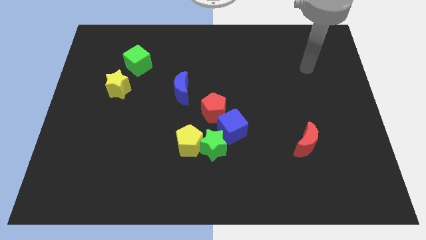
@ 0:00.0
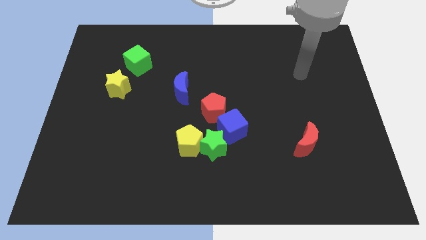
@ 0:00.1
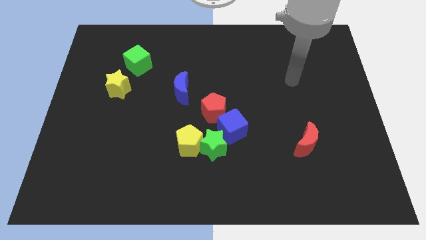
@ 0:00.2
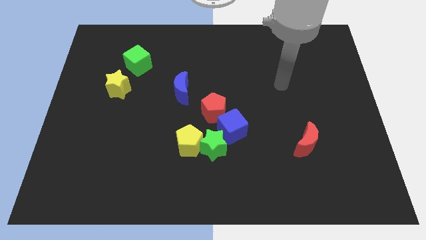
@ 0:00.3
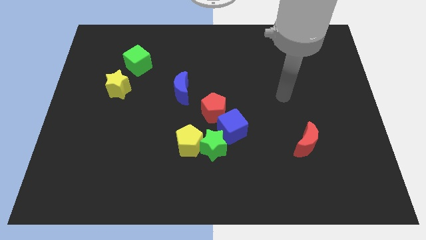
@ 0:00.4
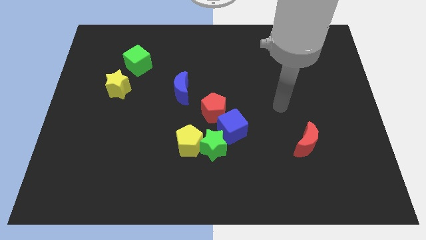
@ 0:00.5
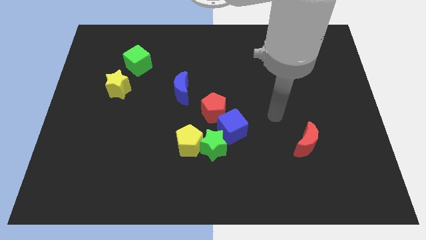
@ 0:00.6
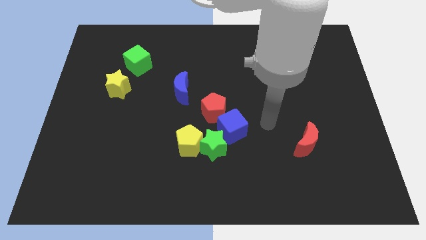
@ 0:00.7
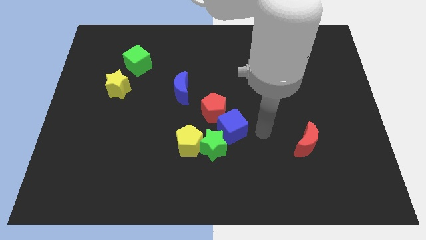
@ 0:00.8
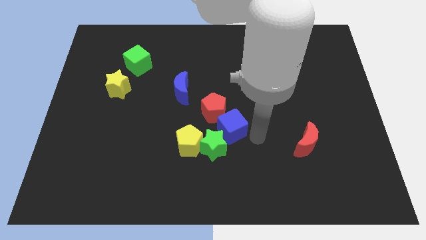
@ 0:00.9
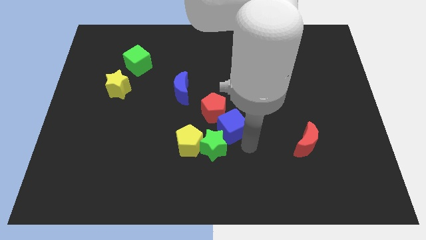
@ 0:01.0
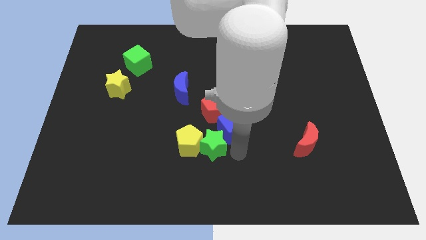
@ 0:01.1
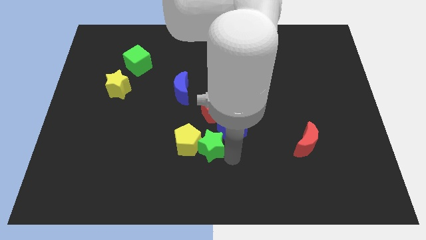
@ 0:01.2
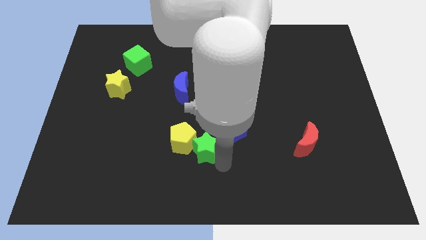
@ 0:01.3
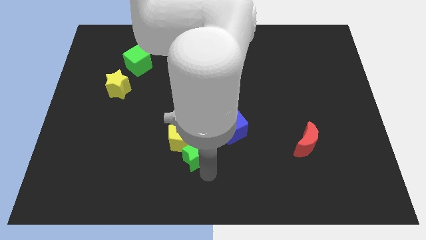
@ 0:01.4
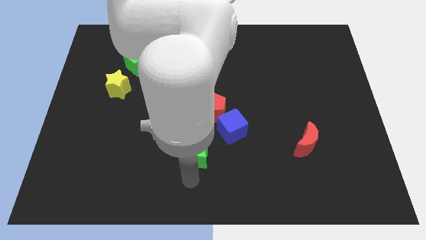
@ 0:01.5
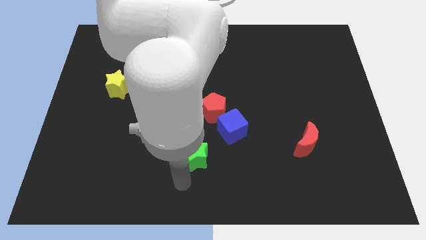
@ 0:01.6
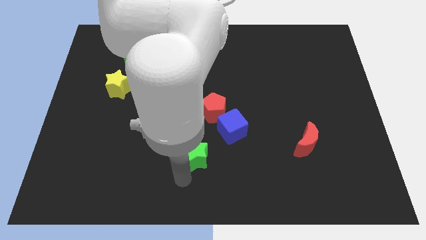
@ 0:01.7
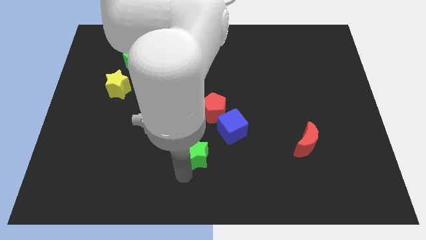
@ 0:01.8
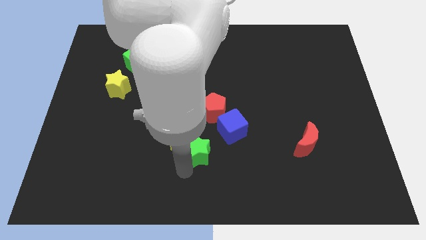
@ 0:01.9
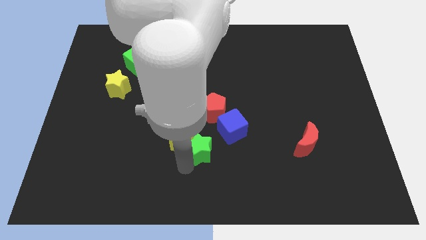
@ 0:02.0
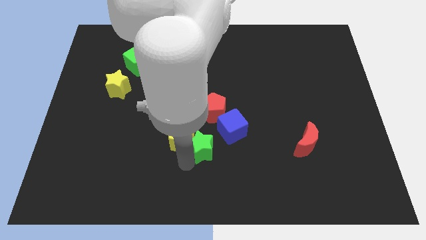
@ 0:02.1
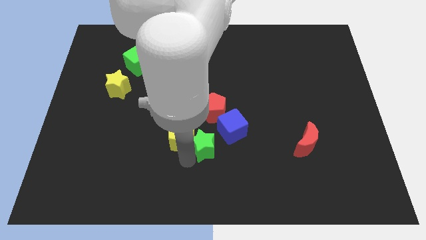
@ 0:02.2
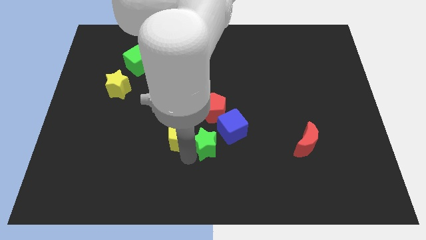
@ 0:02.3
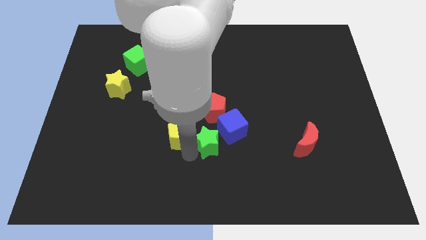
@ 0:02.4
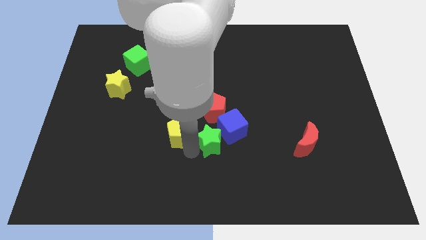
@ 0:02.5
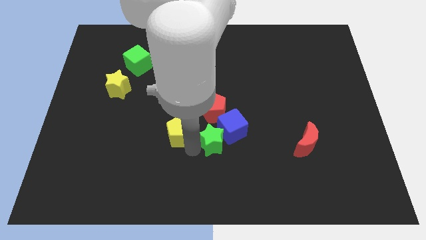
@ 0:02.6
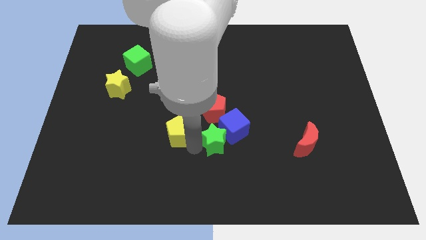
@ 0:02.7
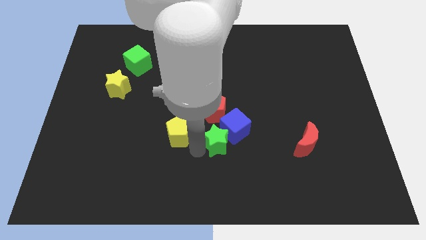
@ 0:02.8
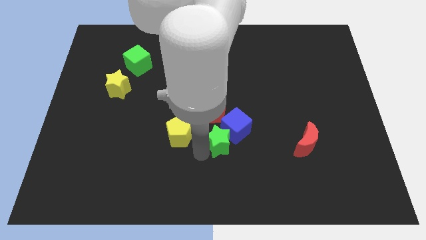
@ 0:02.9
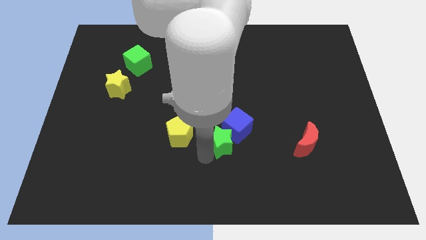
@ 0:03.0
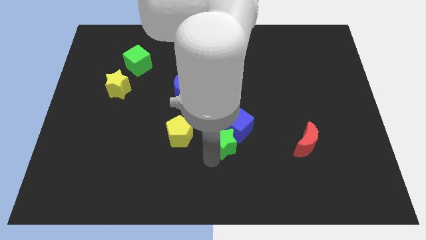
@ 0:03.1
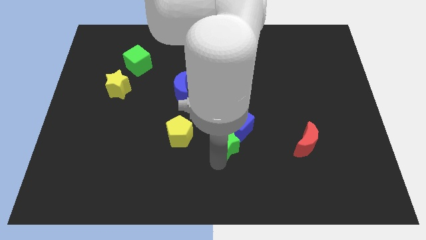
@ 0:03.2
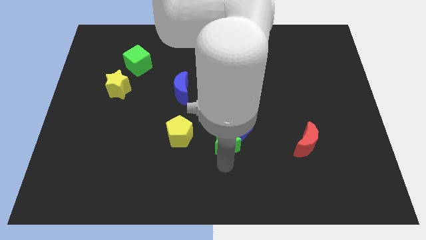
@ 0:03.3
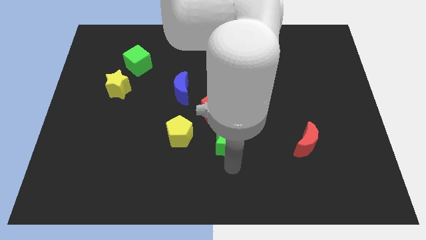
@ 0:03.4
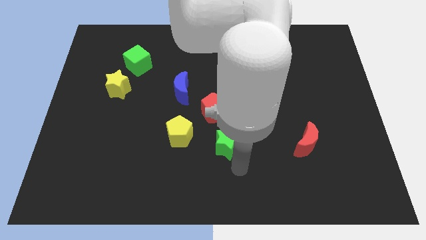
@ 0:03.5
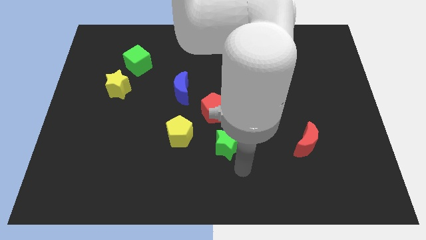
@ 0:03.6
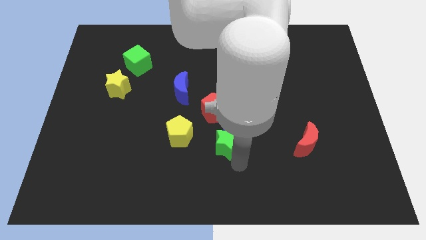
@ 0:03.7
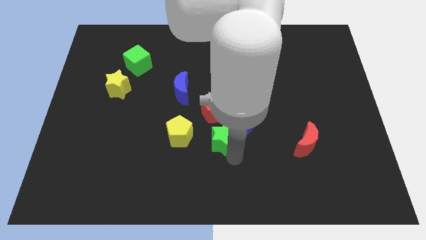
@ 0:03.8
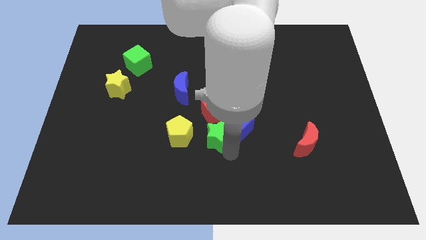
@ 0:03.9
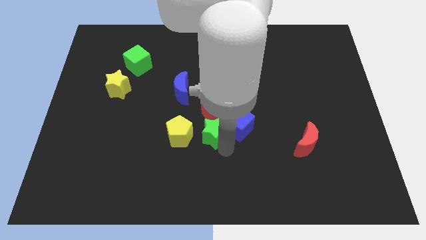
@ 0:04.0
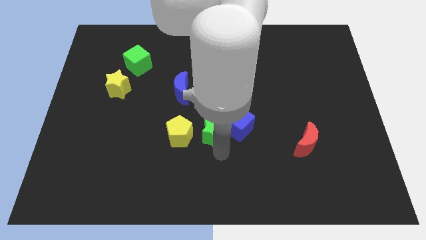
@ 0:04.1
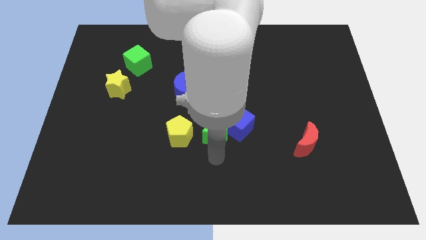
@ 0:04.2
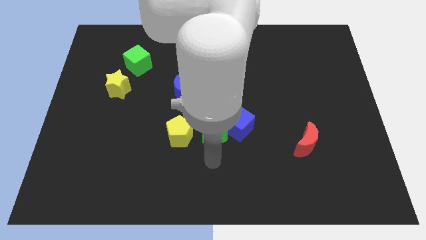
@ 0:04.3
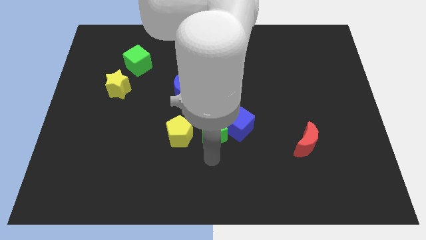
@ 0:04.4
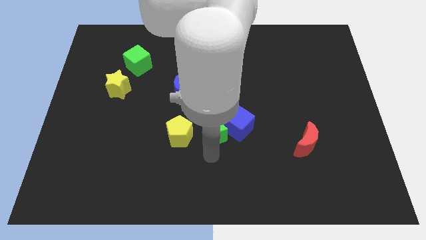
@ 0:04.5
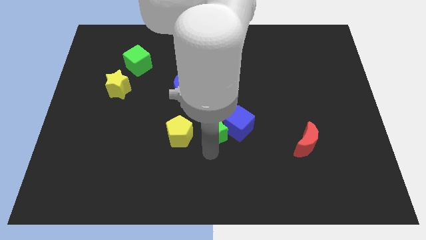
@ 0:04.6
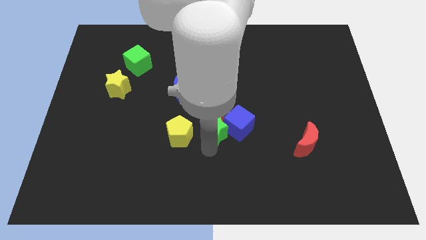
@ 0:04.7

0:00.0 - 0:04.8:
slide the green star next to the red pentagon

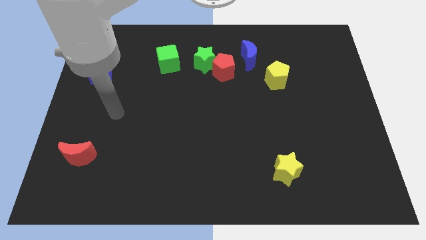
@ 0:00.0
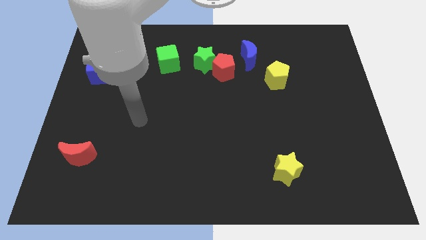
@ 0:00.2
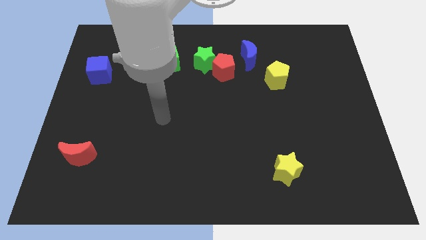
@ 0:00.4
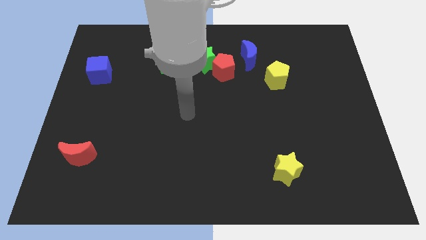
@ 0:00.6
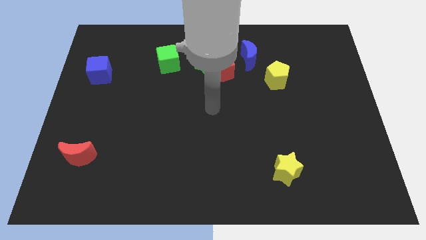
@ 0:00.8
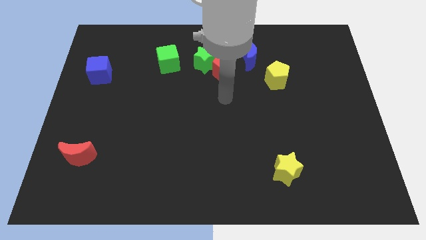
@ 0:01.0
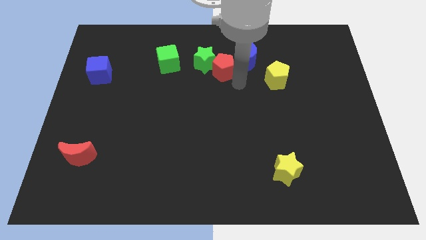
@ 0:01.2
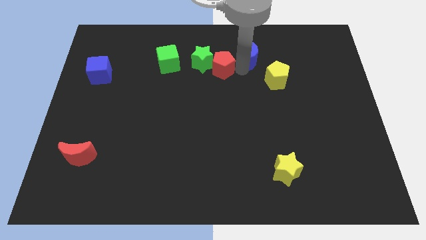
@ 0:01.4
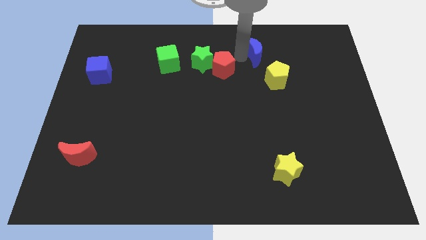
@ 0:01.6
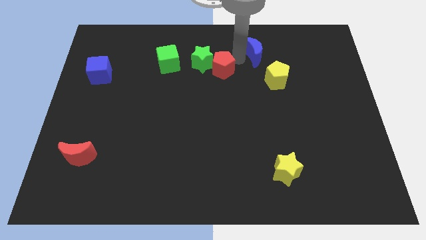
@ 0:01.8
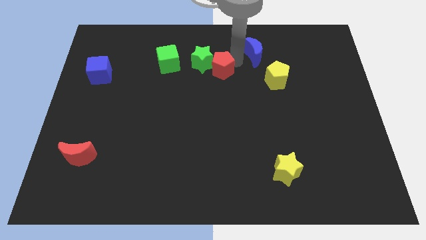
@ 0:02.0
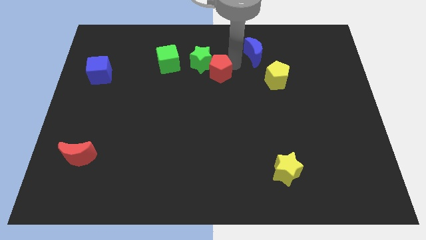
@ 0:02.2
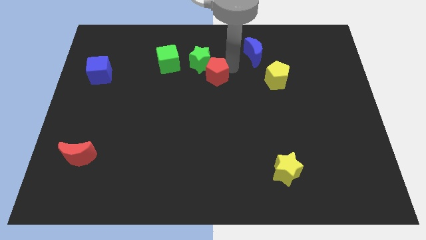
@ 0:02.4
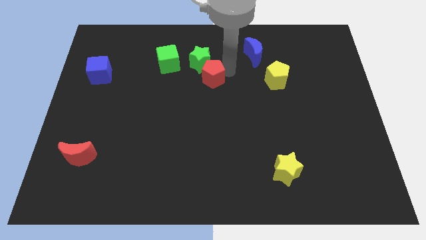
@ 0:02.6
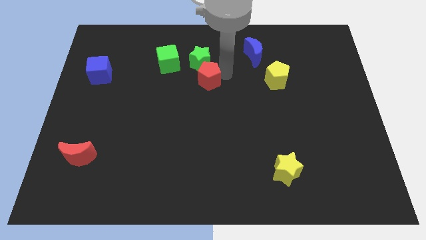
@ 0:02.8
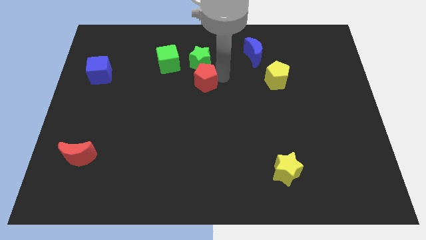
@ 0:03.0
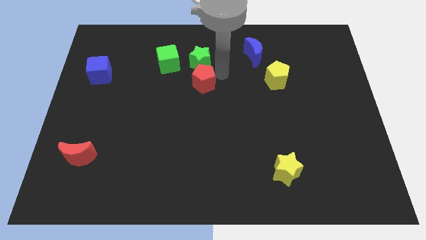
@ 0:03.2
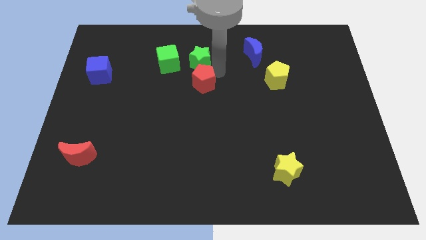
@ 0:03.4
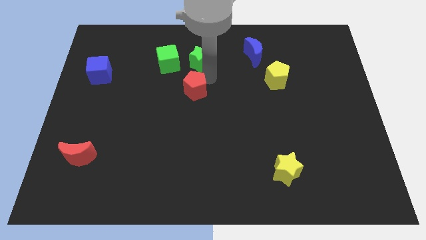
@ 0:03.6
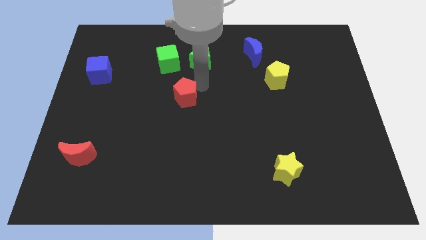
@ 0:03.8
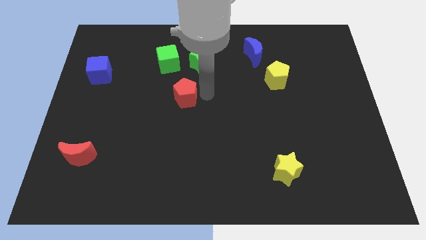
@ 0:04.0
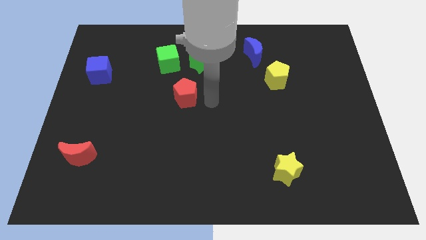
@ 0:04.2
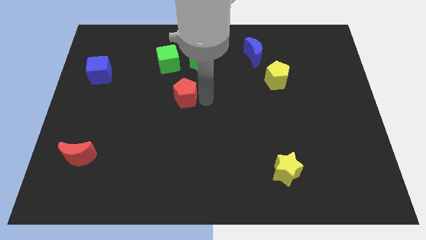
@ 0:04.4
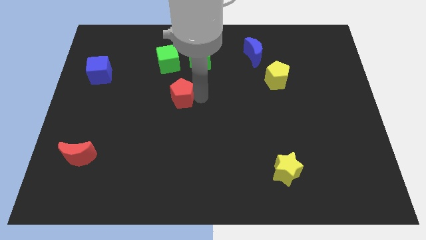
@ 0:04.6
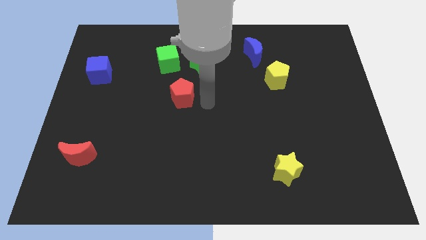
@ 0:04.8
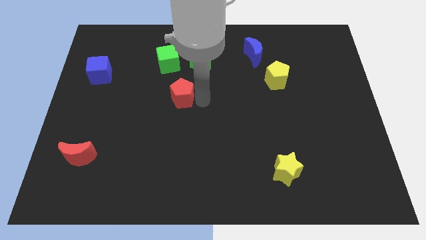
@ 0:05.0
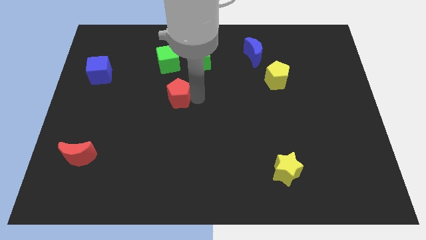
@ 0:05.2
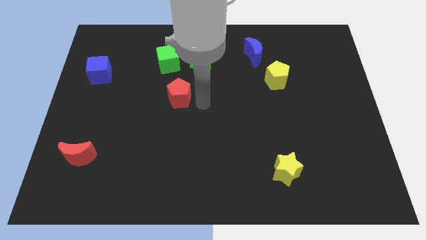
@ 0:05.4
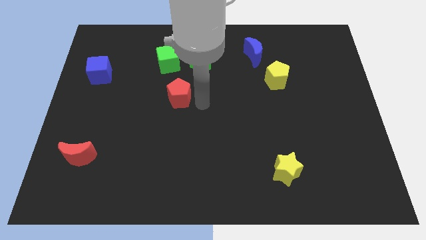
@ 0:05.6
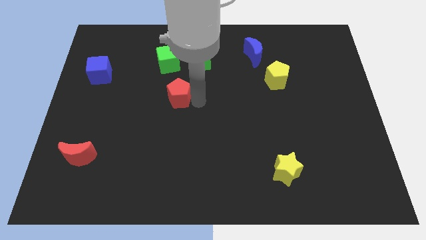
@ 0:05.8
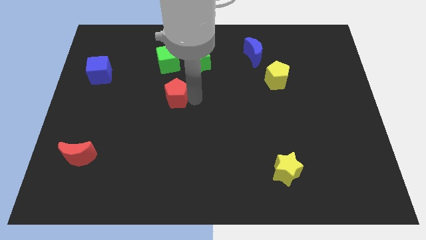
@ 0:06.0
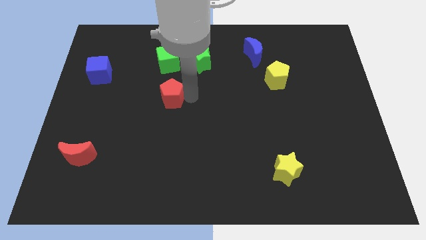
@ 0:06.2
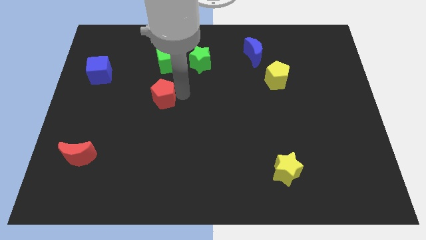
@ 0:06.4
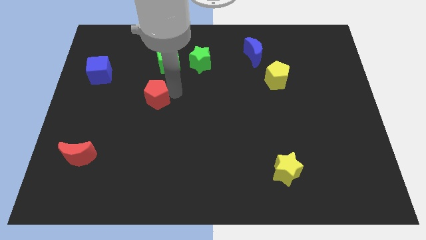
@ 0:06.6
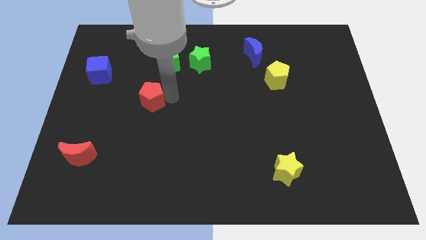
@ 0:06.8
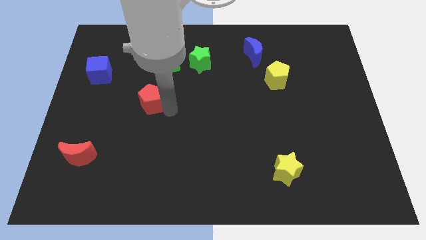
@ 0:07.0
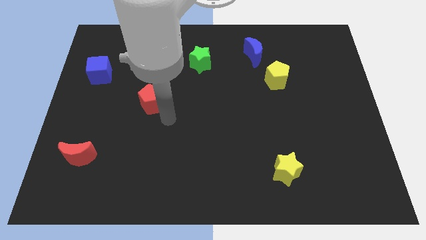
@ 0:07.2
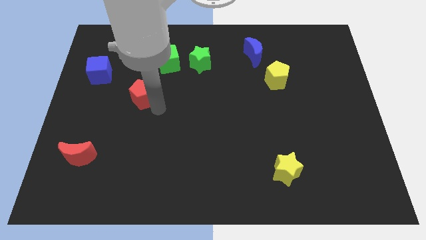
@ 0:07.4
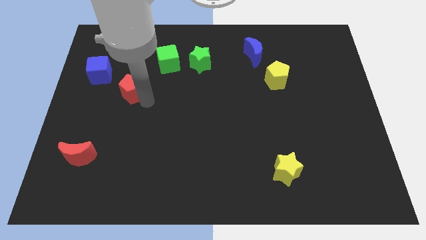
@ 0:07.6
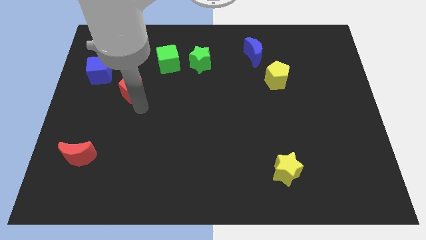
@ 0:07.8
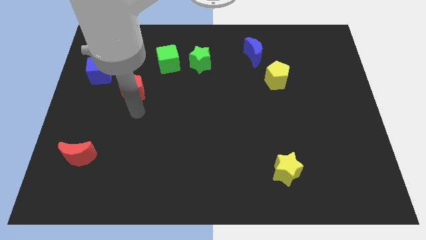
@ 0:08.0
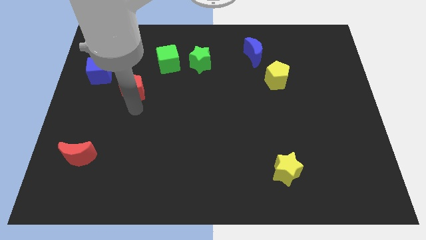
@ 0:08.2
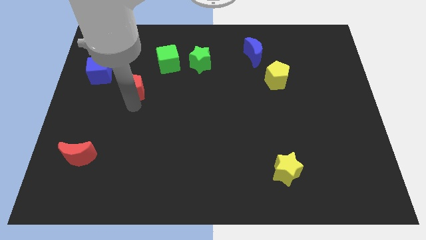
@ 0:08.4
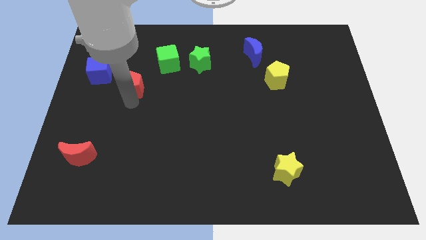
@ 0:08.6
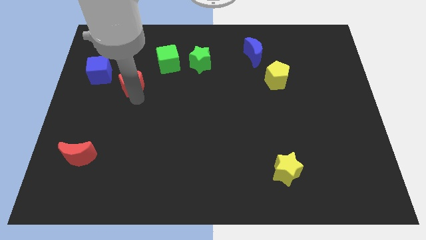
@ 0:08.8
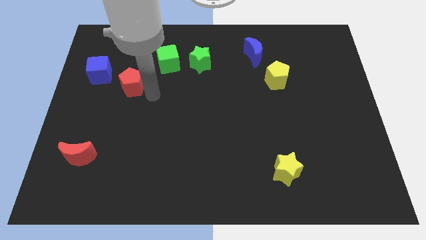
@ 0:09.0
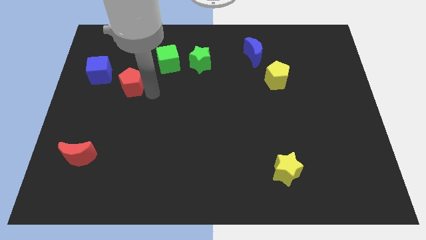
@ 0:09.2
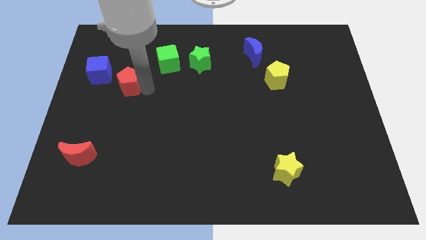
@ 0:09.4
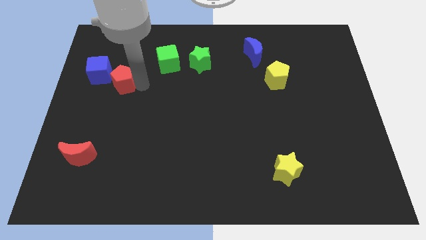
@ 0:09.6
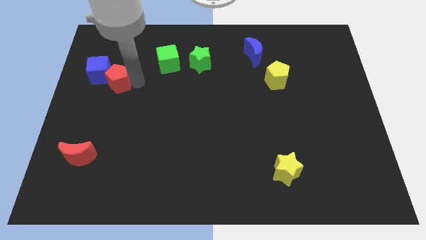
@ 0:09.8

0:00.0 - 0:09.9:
slide the red pentagon to the blue cube
